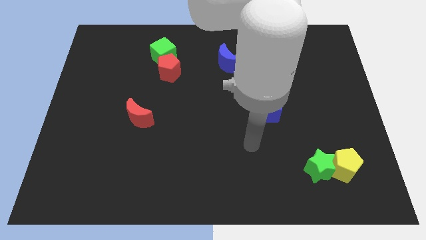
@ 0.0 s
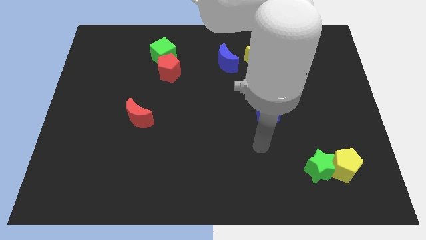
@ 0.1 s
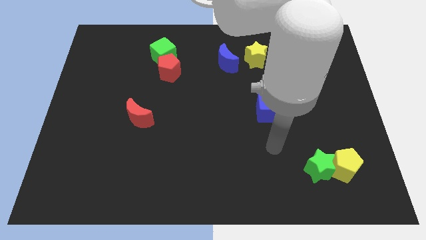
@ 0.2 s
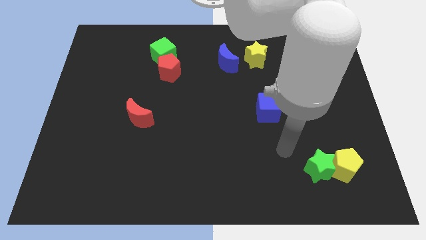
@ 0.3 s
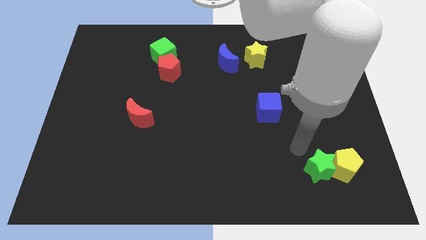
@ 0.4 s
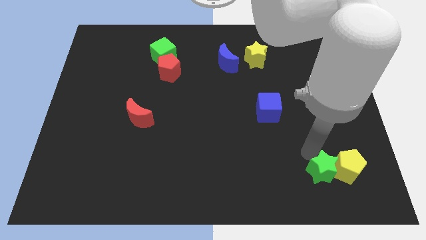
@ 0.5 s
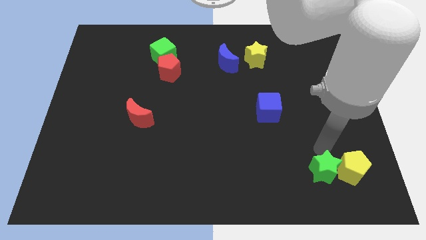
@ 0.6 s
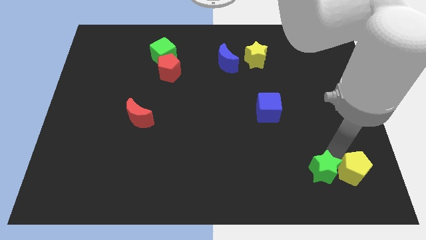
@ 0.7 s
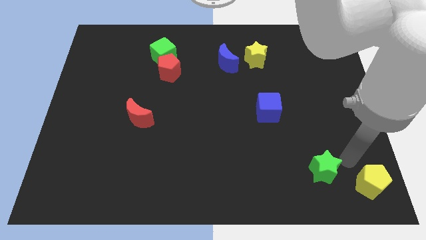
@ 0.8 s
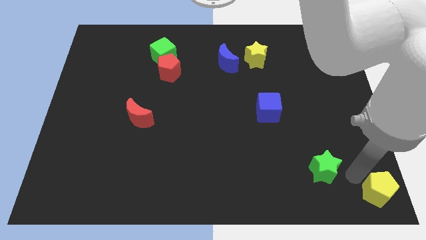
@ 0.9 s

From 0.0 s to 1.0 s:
separate the green star from the yellow pentagon

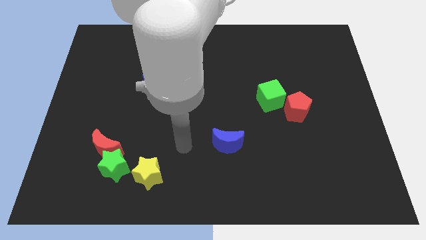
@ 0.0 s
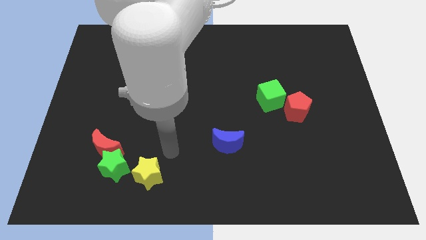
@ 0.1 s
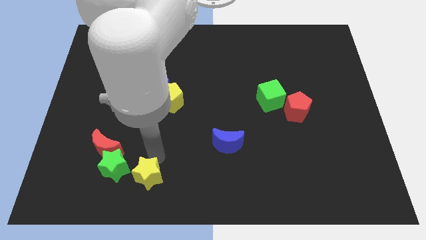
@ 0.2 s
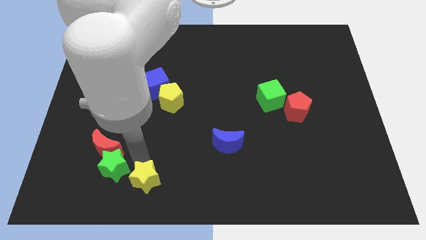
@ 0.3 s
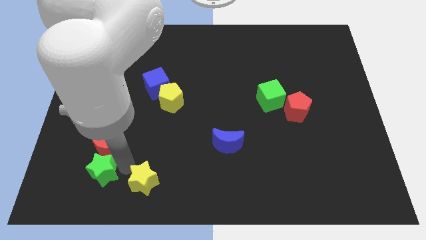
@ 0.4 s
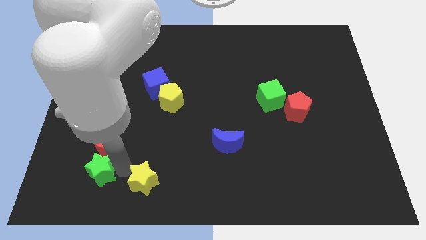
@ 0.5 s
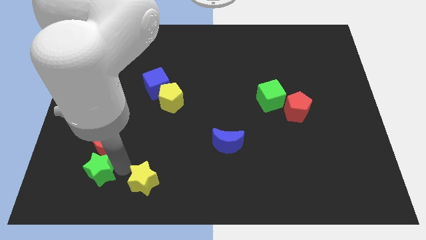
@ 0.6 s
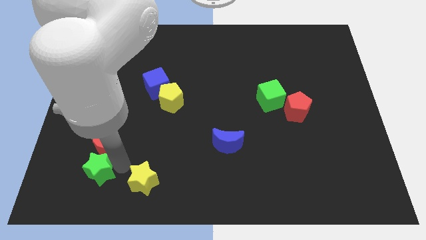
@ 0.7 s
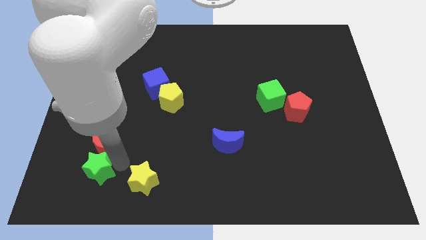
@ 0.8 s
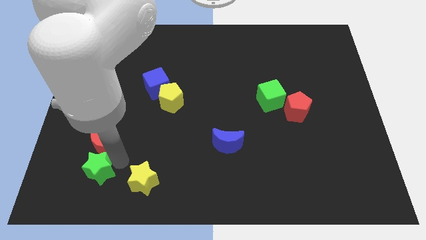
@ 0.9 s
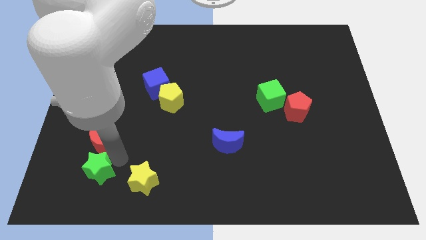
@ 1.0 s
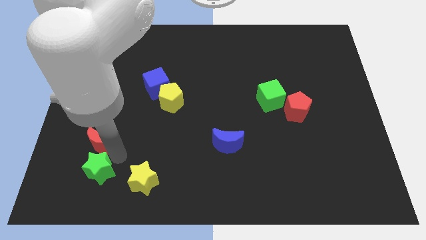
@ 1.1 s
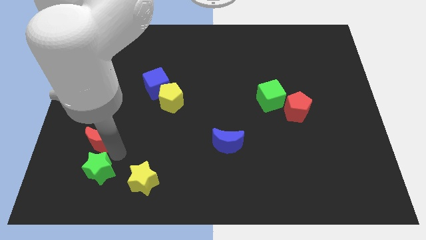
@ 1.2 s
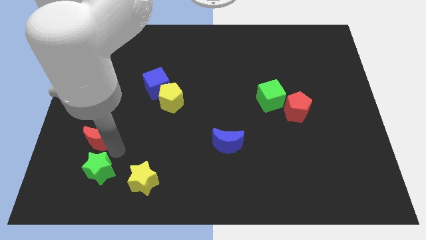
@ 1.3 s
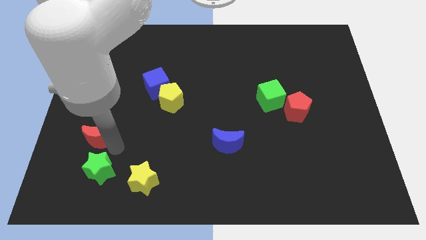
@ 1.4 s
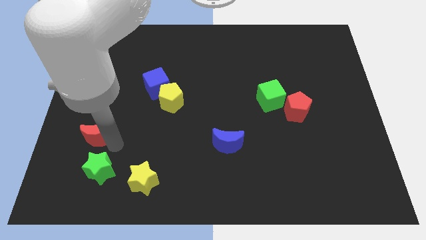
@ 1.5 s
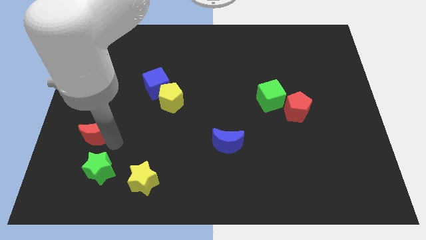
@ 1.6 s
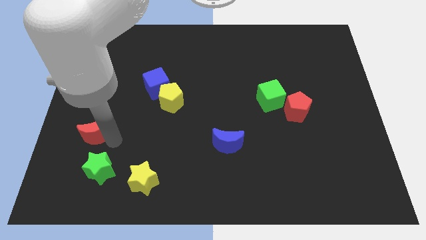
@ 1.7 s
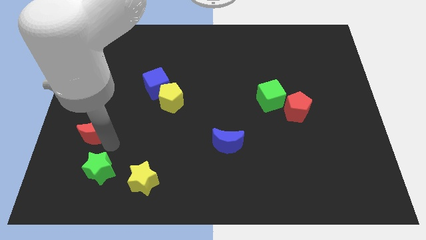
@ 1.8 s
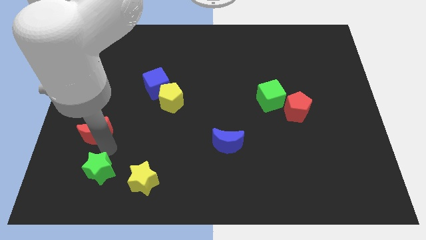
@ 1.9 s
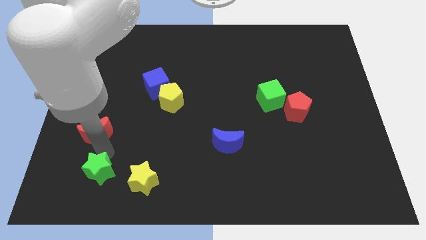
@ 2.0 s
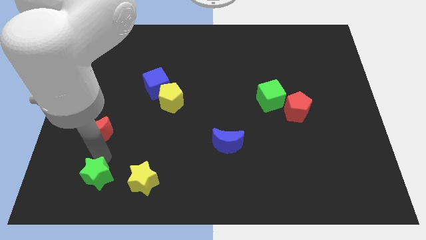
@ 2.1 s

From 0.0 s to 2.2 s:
pull the red moon apart from the green star

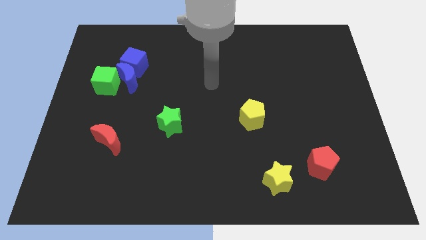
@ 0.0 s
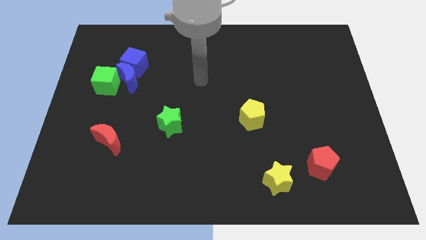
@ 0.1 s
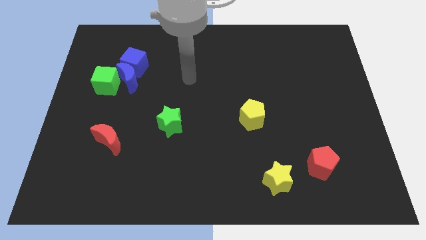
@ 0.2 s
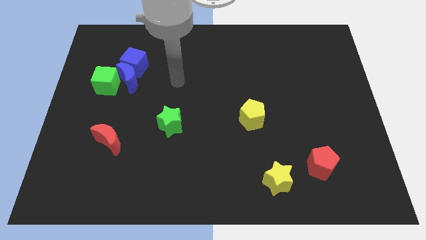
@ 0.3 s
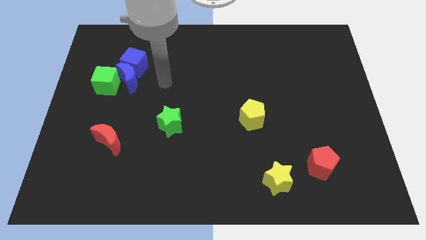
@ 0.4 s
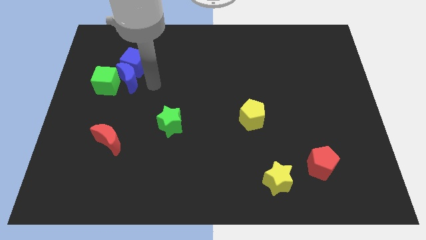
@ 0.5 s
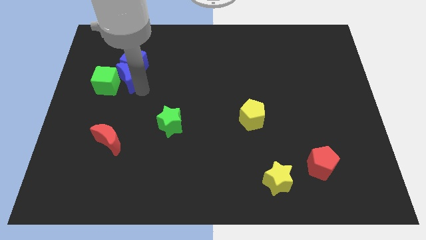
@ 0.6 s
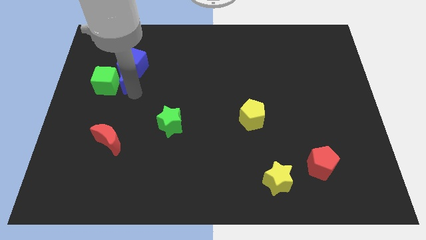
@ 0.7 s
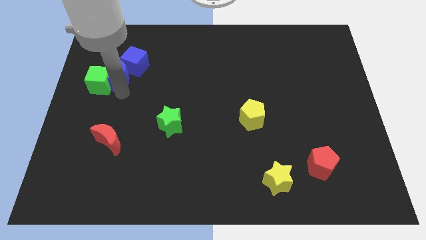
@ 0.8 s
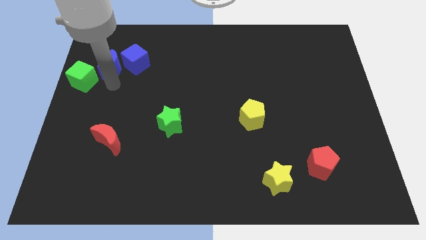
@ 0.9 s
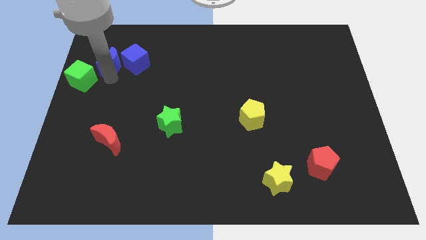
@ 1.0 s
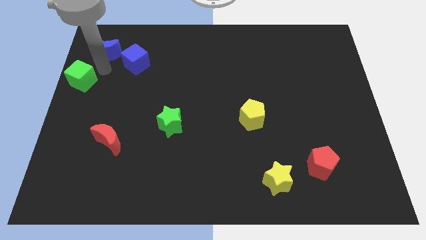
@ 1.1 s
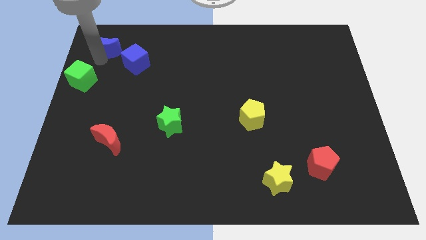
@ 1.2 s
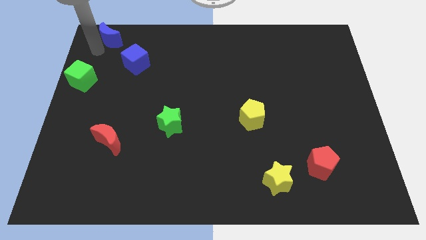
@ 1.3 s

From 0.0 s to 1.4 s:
separate the blue moon from the blue cube and green cube

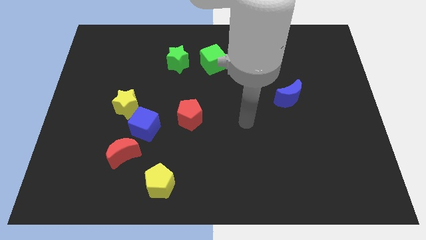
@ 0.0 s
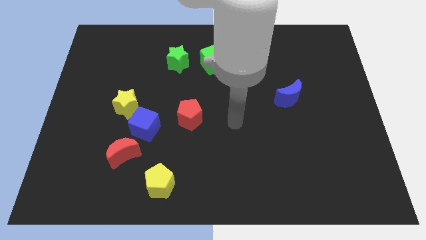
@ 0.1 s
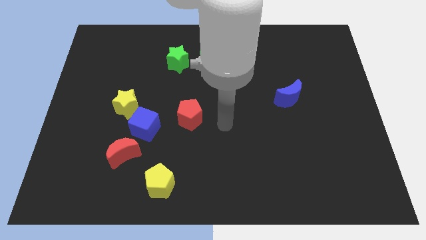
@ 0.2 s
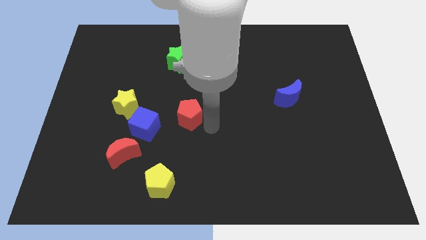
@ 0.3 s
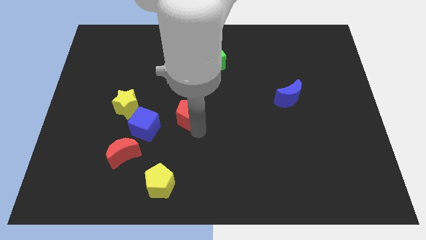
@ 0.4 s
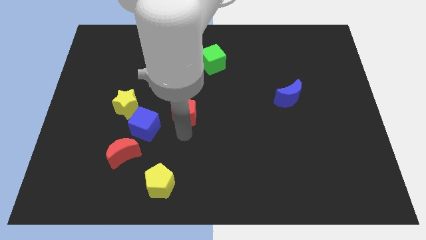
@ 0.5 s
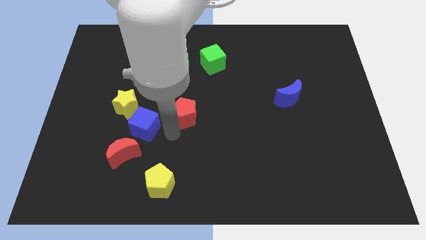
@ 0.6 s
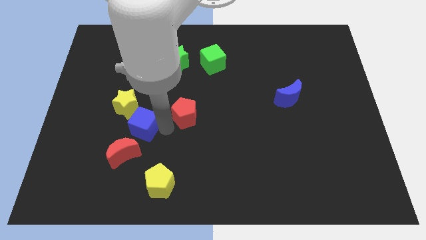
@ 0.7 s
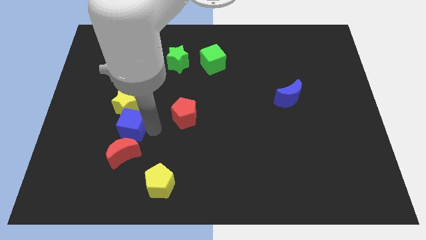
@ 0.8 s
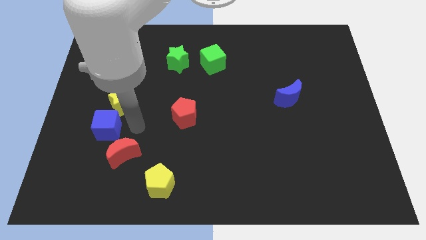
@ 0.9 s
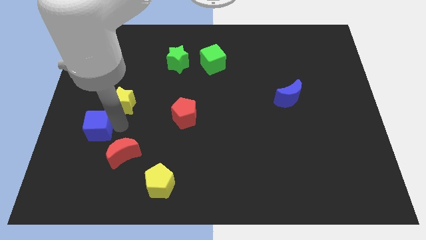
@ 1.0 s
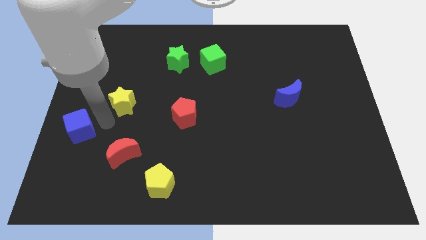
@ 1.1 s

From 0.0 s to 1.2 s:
separate the yellow star from the blue cube

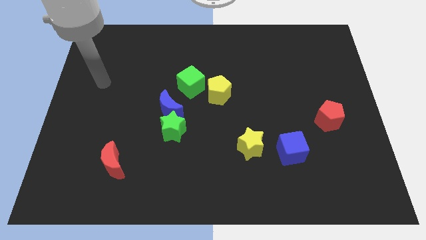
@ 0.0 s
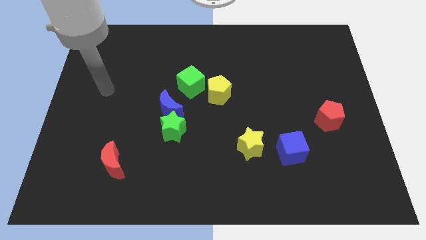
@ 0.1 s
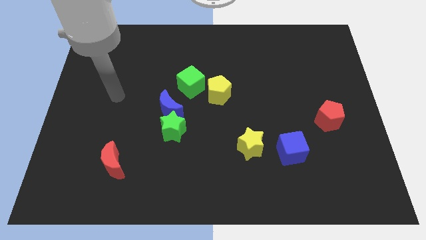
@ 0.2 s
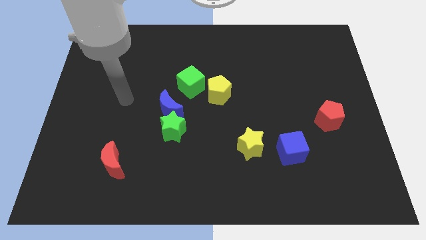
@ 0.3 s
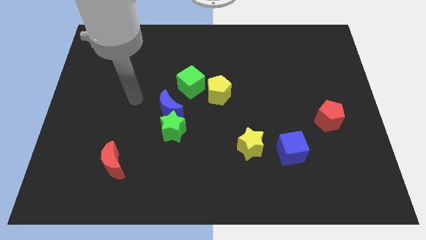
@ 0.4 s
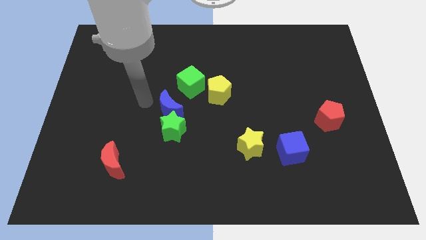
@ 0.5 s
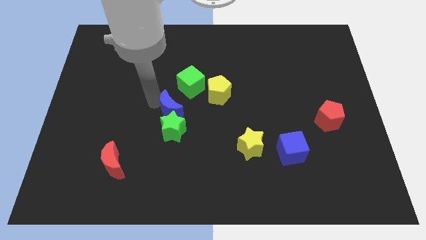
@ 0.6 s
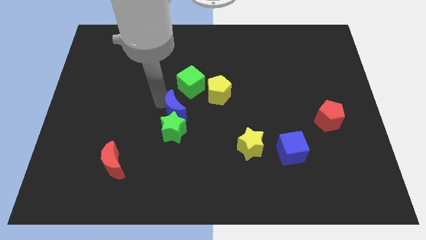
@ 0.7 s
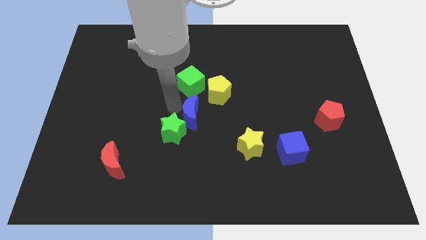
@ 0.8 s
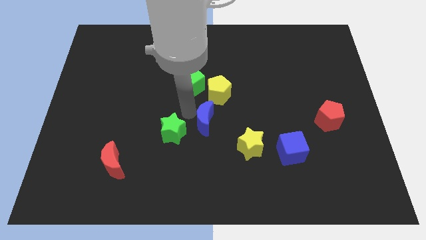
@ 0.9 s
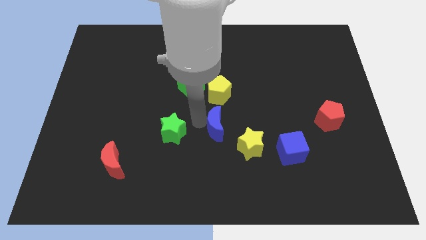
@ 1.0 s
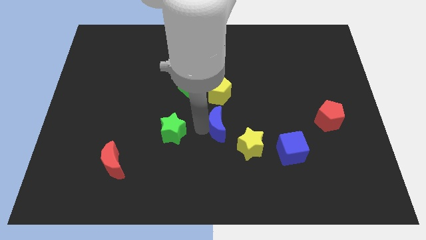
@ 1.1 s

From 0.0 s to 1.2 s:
separate the green star from the blue moon

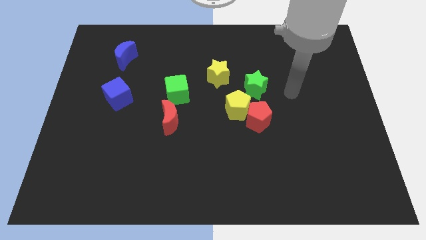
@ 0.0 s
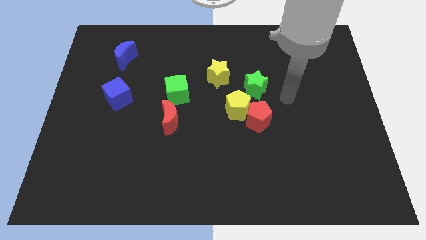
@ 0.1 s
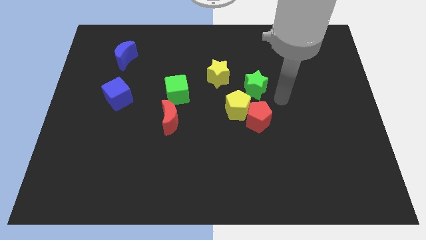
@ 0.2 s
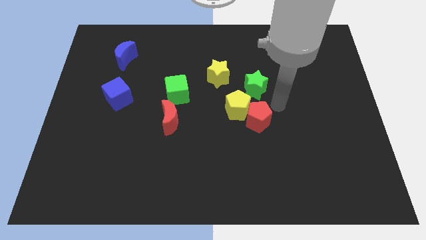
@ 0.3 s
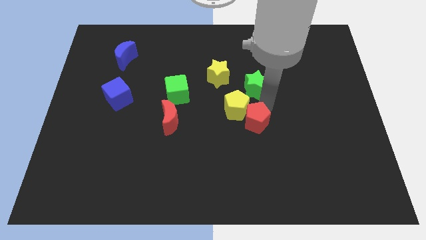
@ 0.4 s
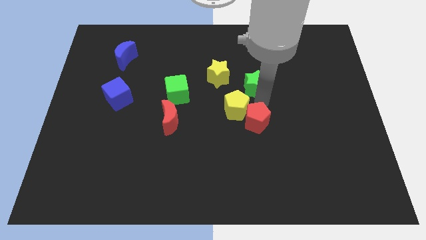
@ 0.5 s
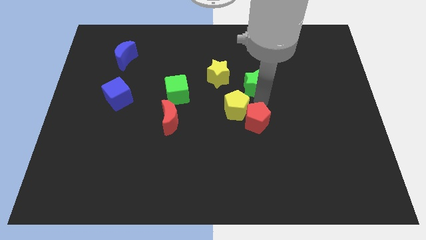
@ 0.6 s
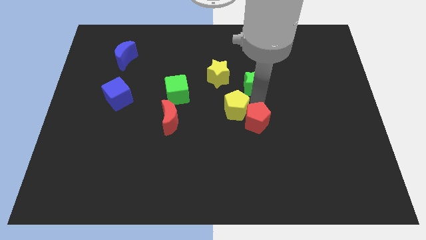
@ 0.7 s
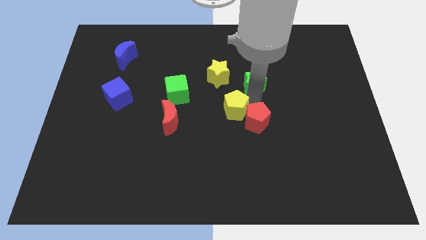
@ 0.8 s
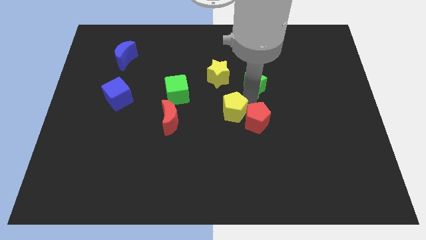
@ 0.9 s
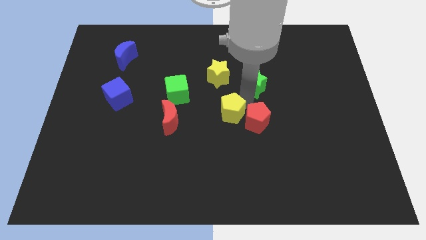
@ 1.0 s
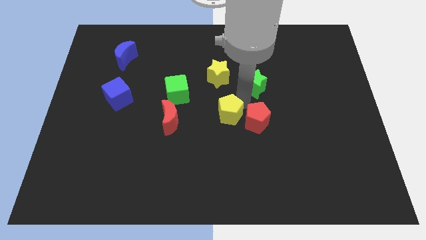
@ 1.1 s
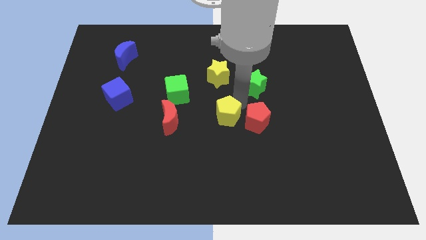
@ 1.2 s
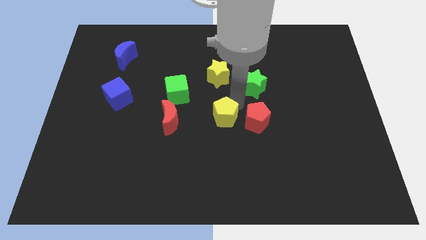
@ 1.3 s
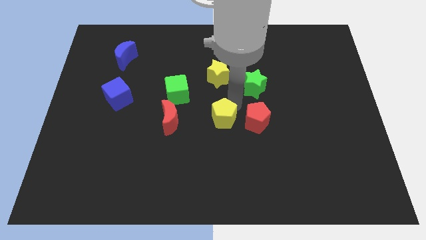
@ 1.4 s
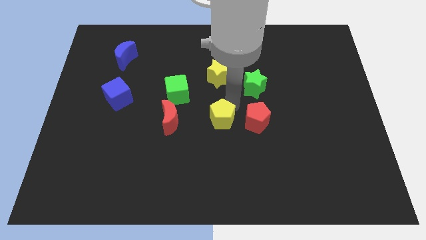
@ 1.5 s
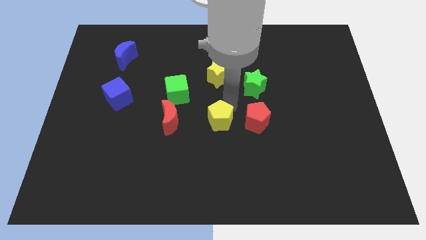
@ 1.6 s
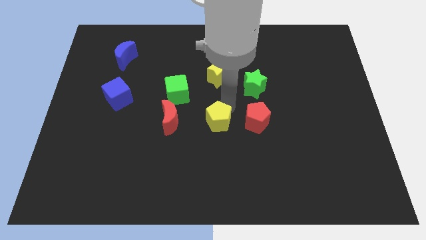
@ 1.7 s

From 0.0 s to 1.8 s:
separate the yellow pentagon from the red pentagon and green star

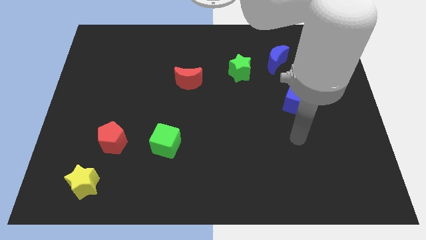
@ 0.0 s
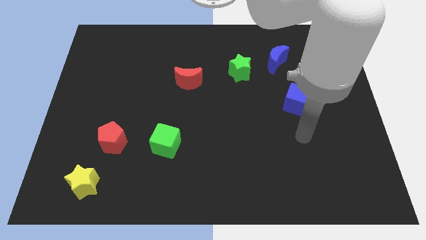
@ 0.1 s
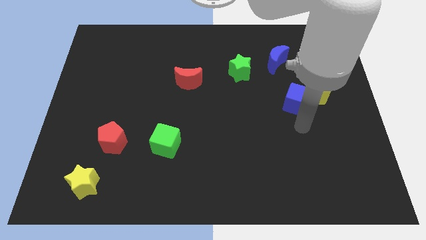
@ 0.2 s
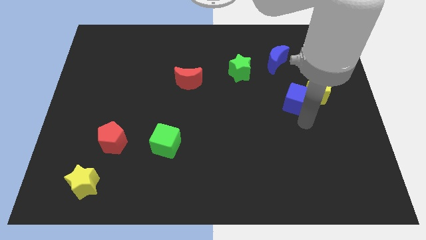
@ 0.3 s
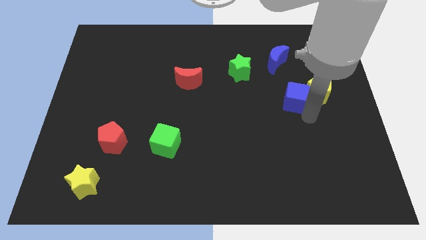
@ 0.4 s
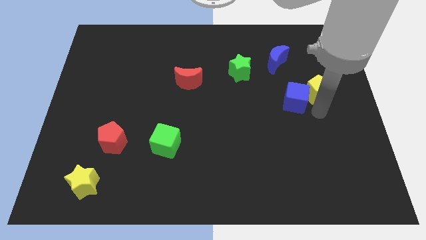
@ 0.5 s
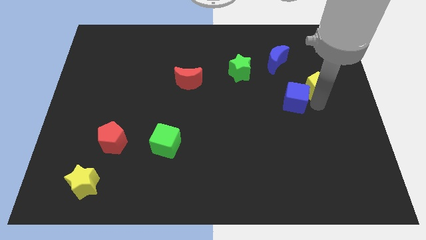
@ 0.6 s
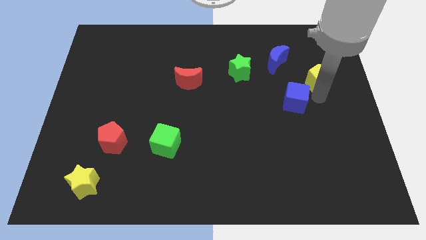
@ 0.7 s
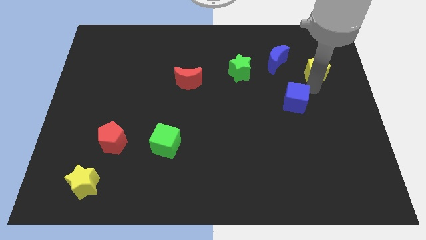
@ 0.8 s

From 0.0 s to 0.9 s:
separate the blue cube from the yellow pentagon
